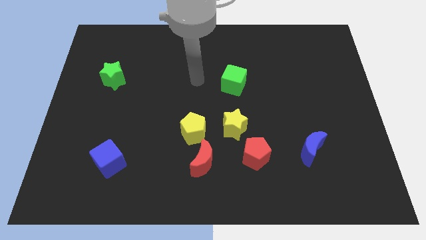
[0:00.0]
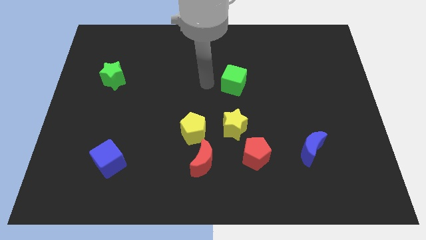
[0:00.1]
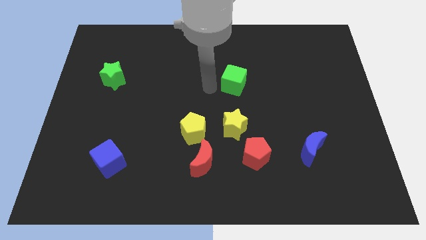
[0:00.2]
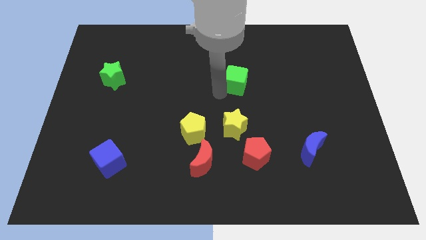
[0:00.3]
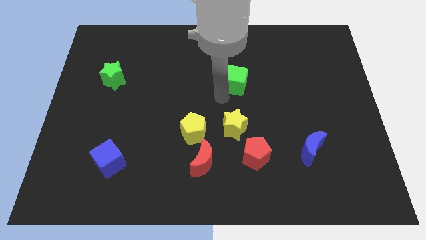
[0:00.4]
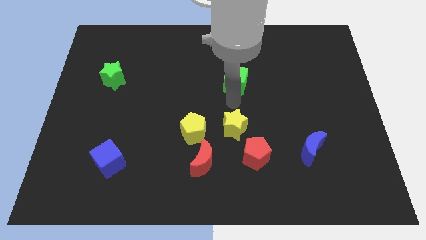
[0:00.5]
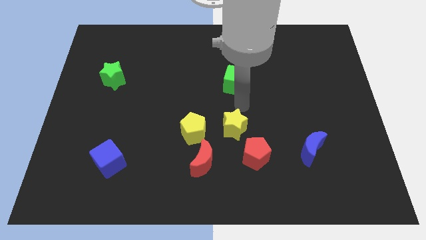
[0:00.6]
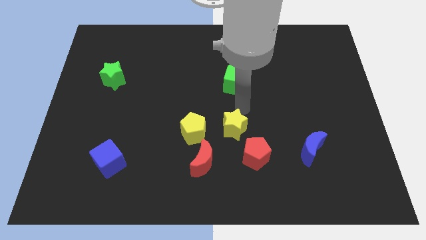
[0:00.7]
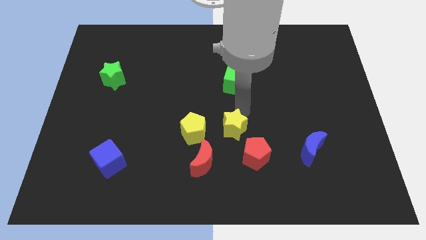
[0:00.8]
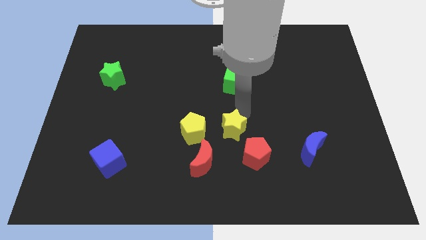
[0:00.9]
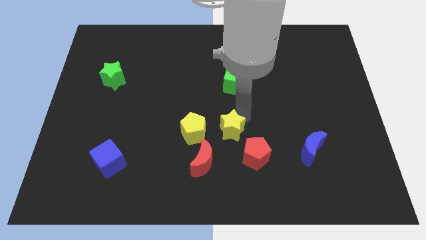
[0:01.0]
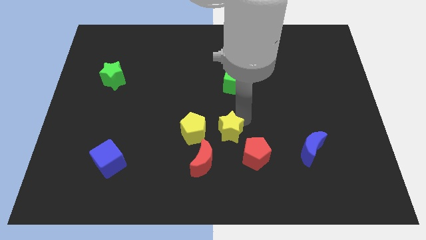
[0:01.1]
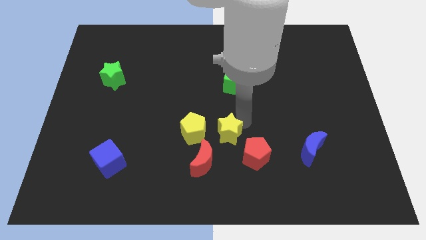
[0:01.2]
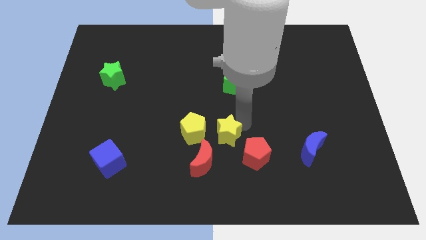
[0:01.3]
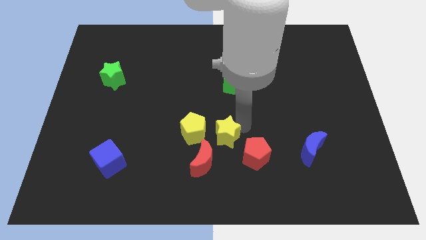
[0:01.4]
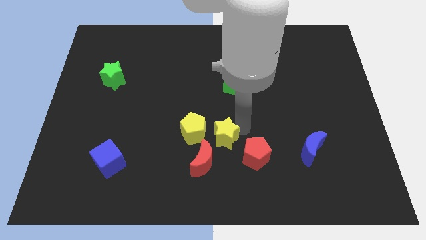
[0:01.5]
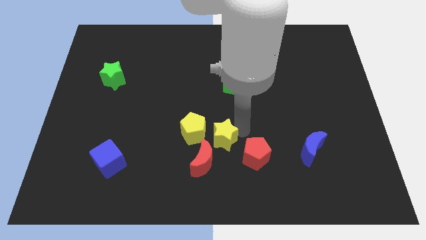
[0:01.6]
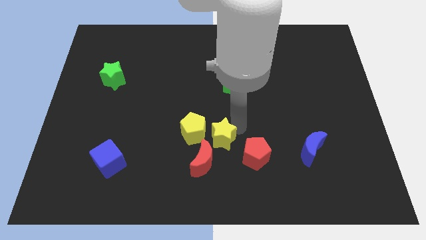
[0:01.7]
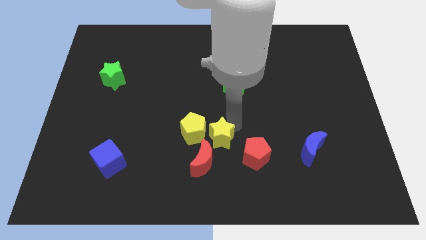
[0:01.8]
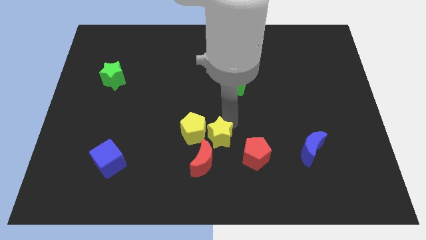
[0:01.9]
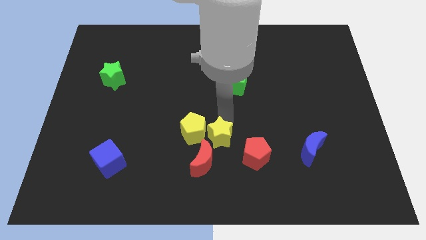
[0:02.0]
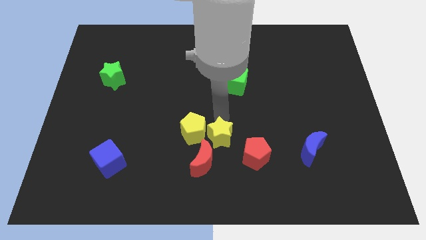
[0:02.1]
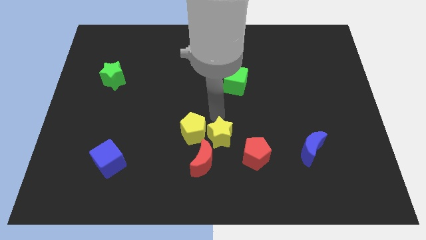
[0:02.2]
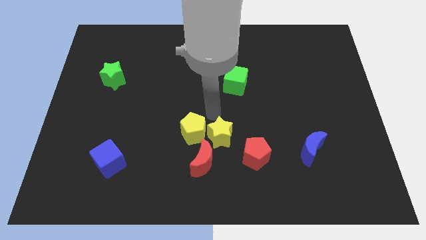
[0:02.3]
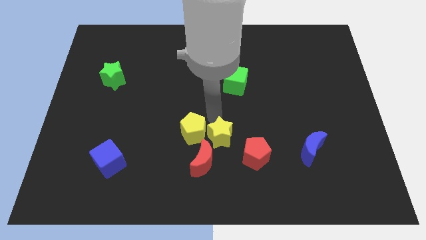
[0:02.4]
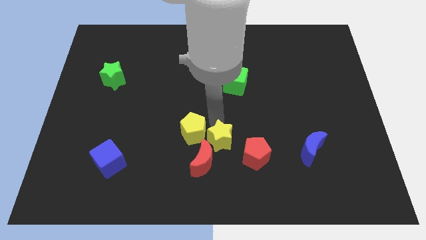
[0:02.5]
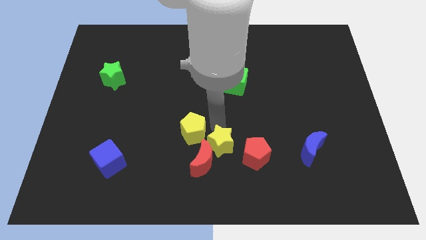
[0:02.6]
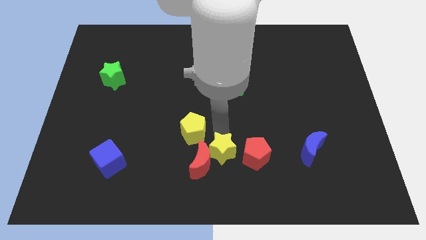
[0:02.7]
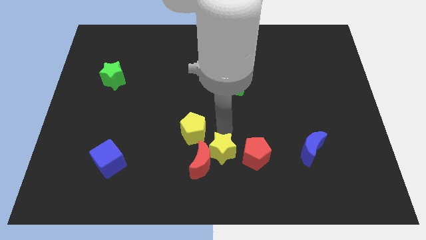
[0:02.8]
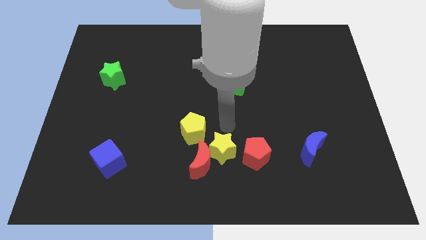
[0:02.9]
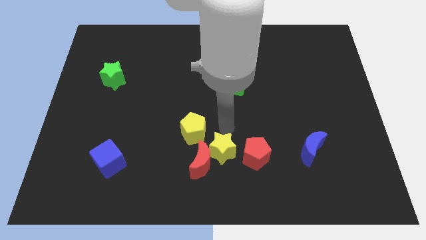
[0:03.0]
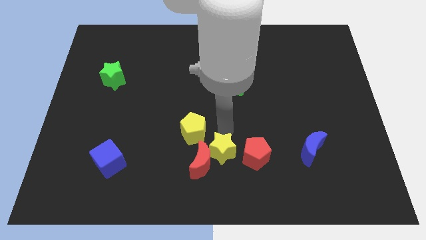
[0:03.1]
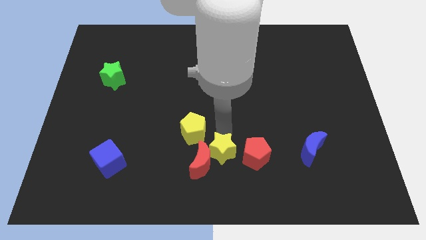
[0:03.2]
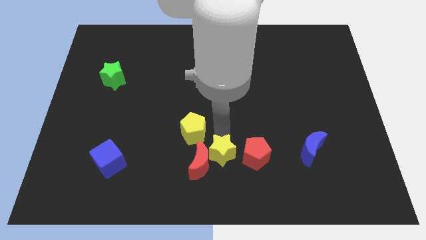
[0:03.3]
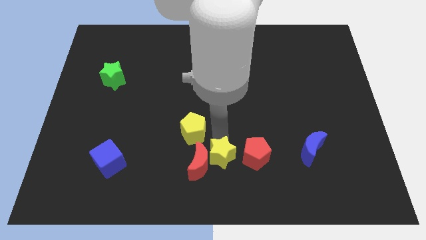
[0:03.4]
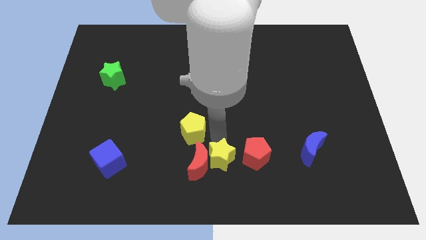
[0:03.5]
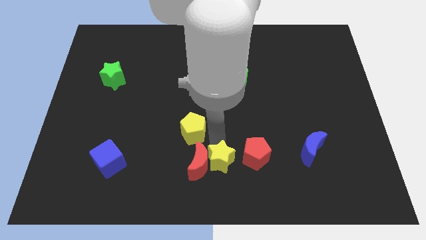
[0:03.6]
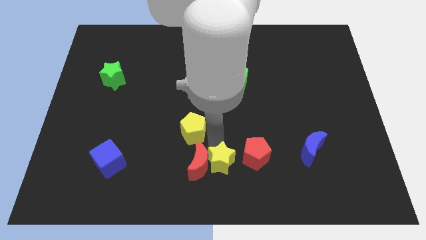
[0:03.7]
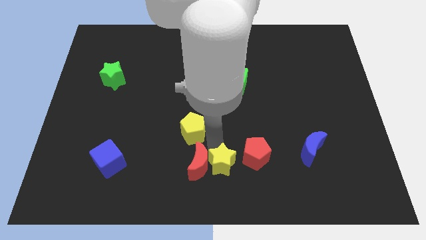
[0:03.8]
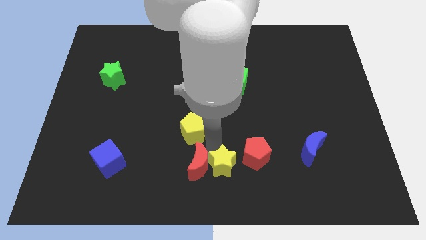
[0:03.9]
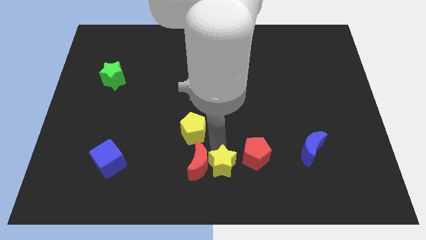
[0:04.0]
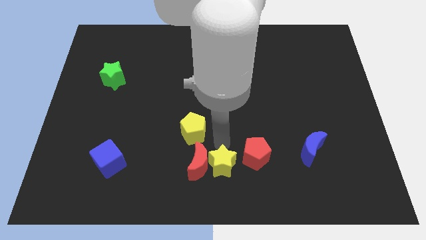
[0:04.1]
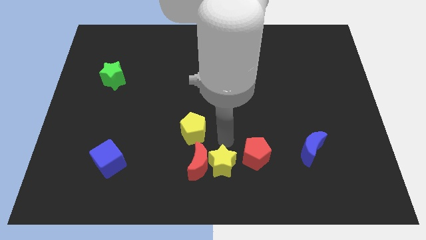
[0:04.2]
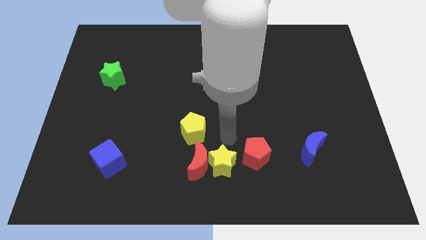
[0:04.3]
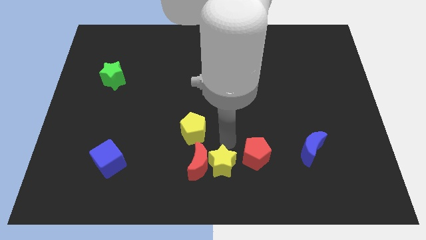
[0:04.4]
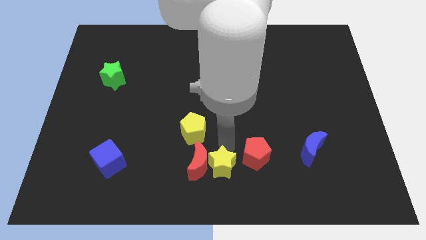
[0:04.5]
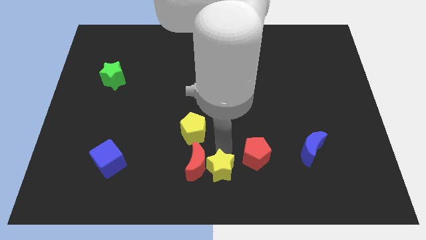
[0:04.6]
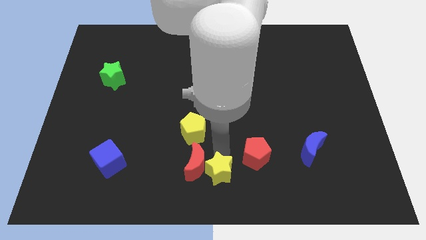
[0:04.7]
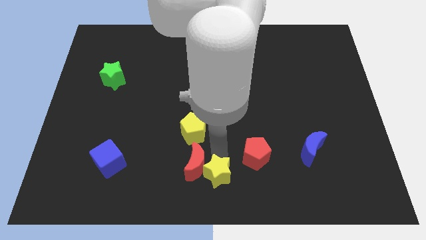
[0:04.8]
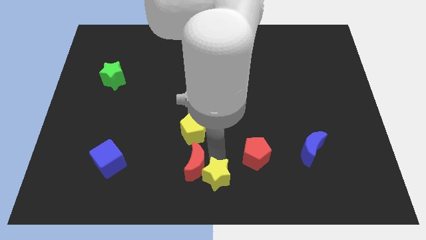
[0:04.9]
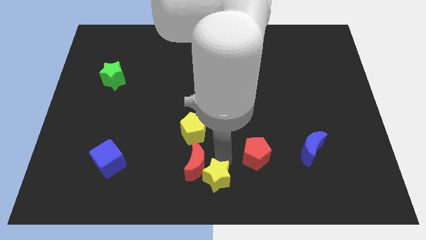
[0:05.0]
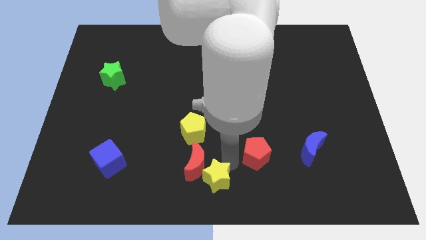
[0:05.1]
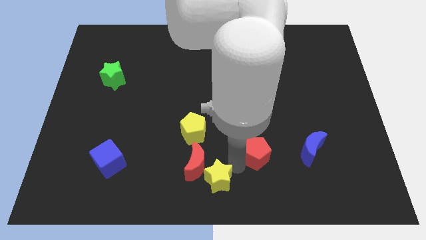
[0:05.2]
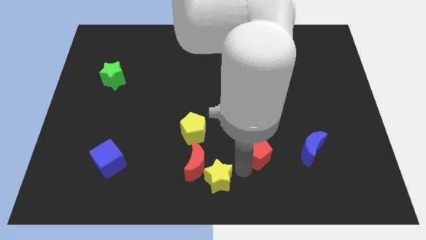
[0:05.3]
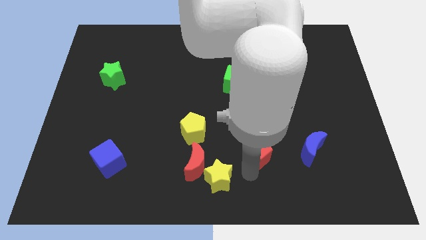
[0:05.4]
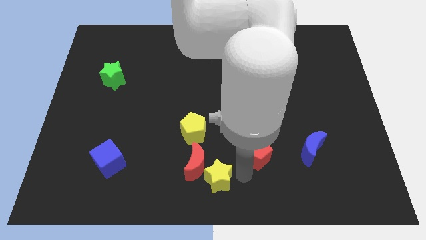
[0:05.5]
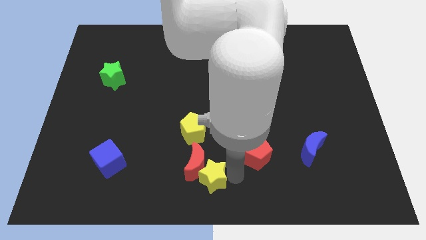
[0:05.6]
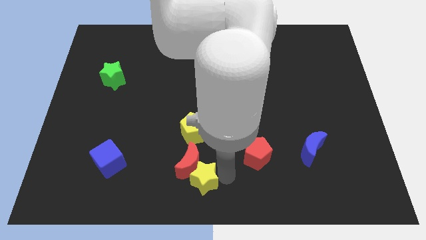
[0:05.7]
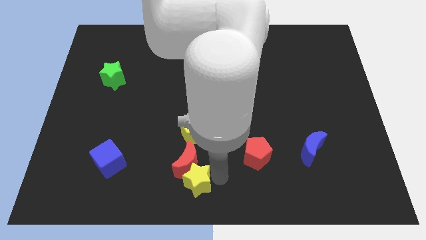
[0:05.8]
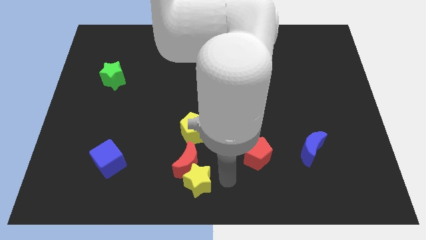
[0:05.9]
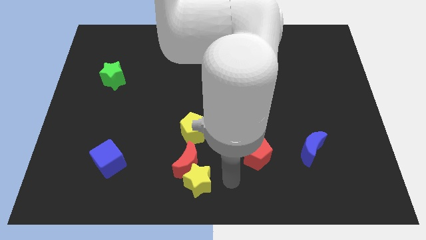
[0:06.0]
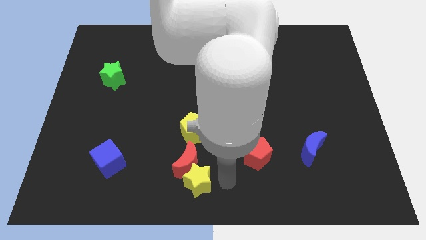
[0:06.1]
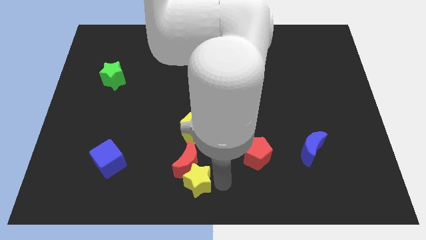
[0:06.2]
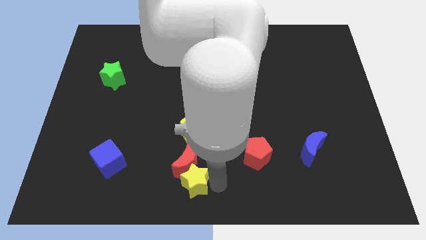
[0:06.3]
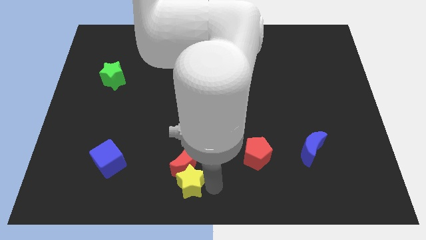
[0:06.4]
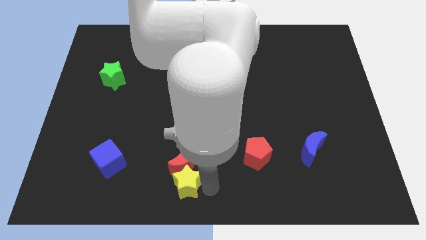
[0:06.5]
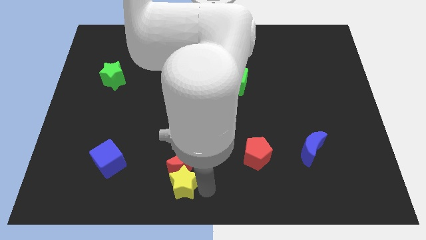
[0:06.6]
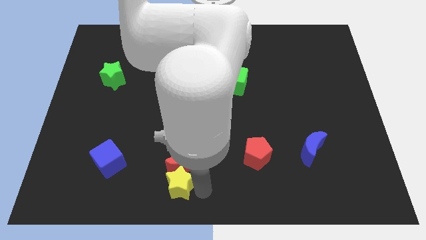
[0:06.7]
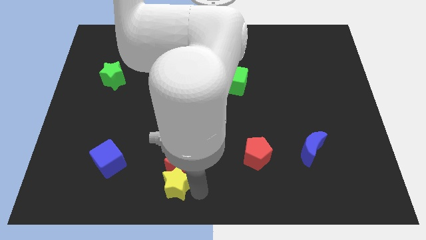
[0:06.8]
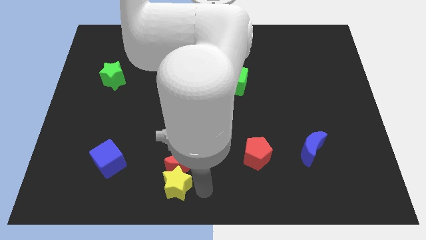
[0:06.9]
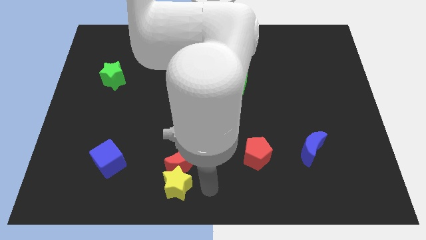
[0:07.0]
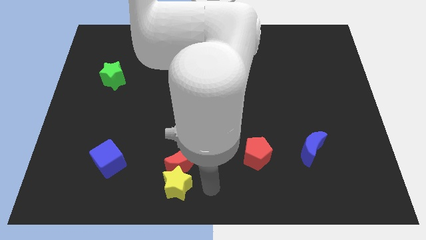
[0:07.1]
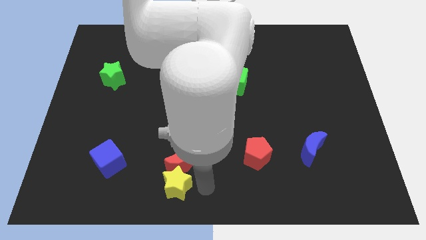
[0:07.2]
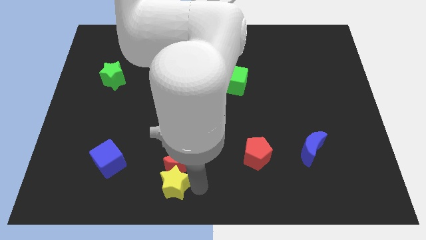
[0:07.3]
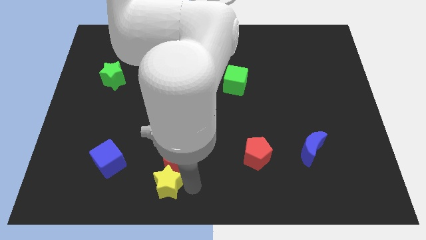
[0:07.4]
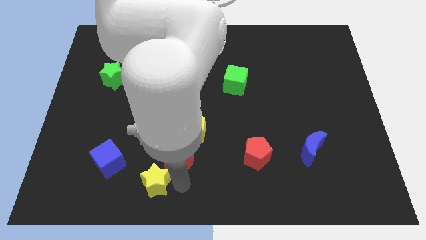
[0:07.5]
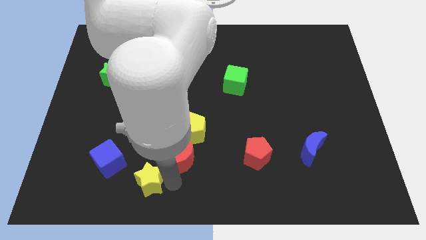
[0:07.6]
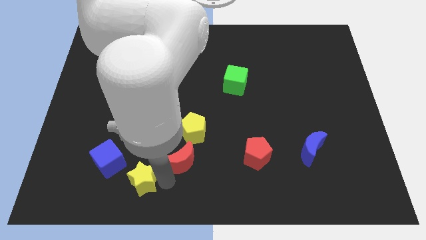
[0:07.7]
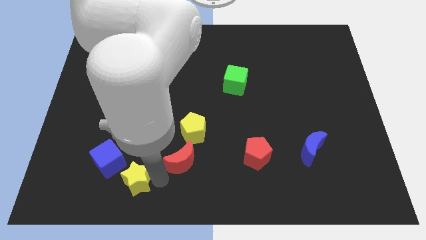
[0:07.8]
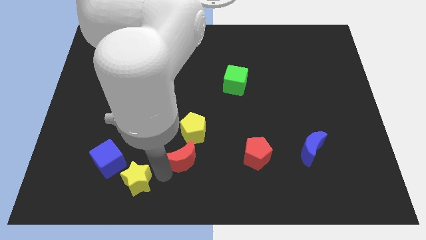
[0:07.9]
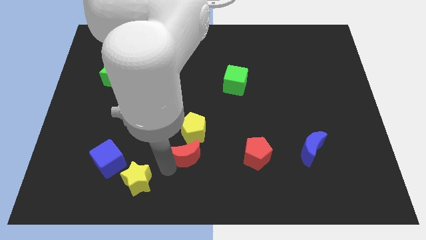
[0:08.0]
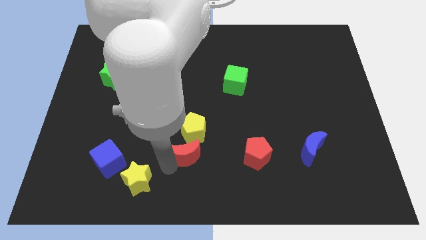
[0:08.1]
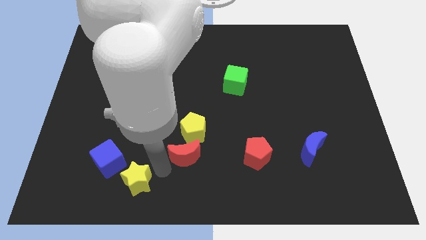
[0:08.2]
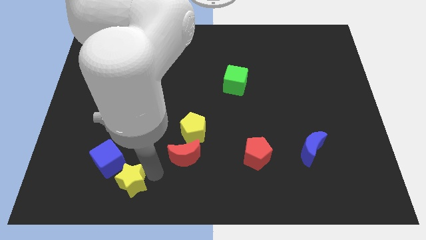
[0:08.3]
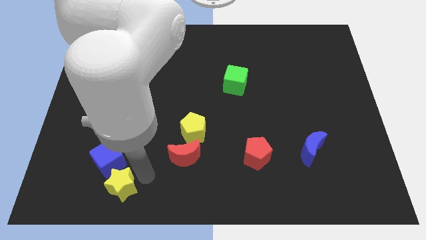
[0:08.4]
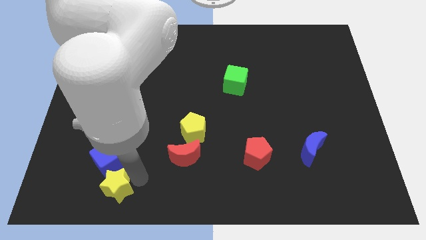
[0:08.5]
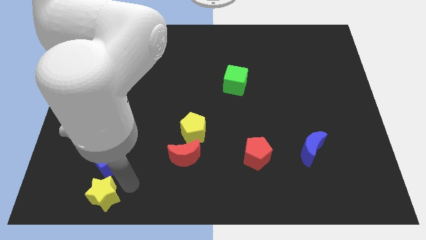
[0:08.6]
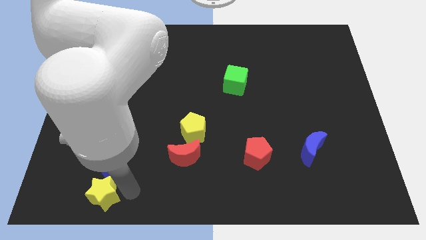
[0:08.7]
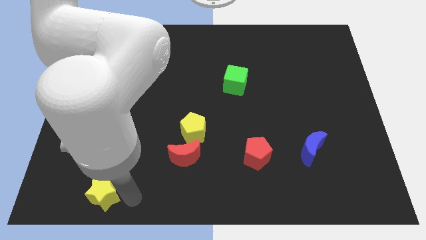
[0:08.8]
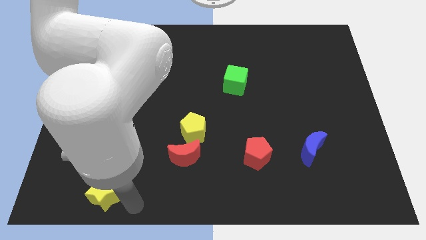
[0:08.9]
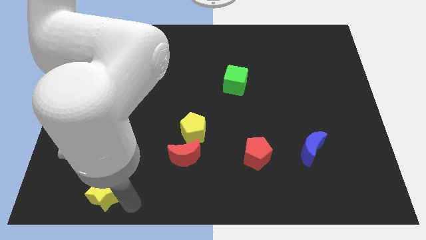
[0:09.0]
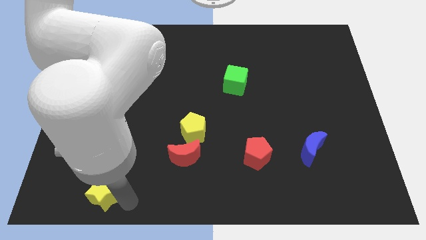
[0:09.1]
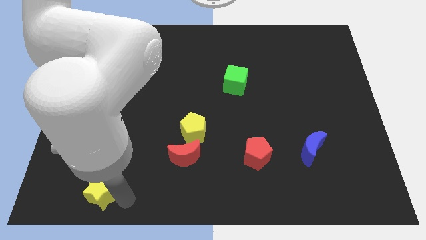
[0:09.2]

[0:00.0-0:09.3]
move the yellow star to the bottom left of the blue cube
